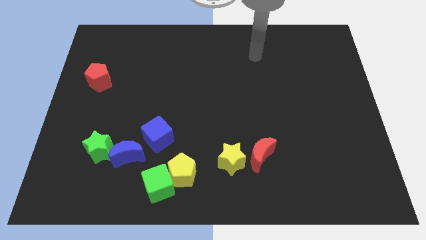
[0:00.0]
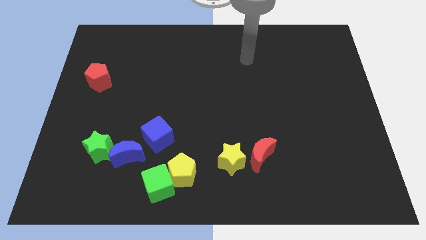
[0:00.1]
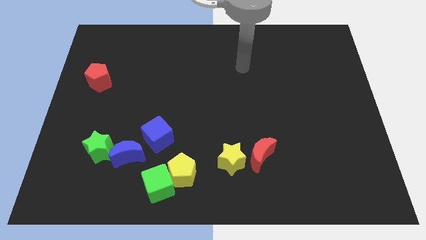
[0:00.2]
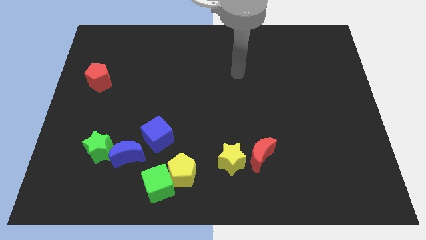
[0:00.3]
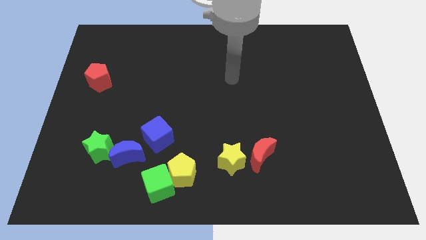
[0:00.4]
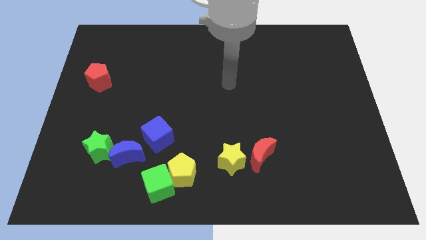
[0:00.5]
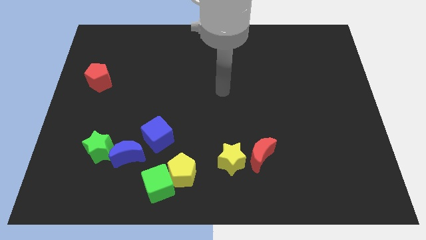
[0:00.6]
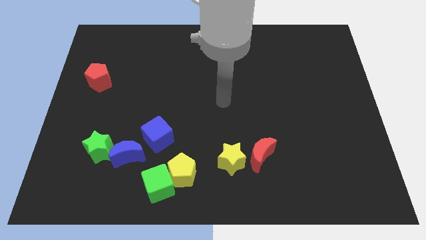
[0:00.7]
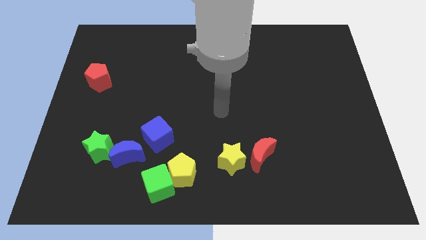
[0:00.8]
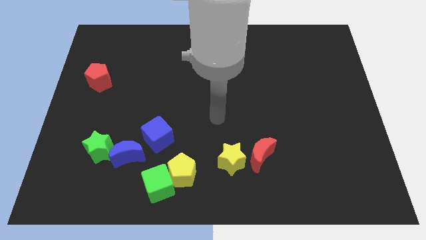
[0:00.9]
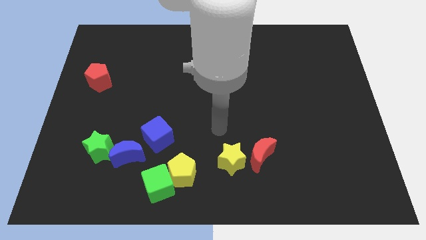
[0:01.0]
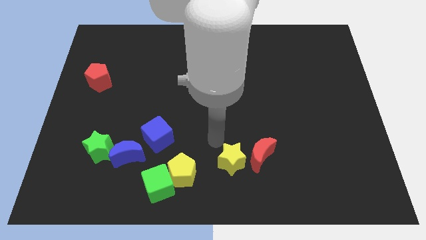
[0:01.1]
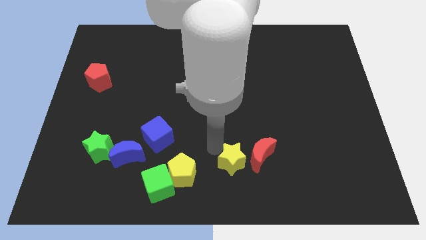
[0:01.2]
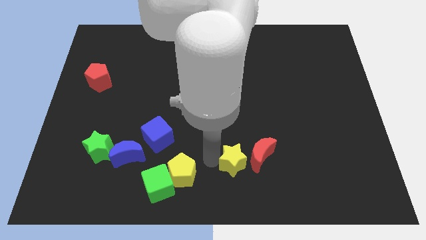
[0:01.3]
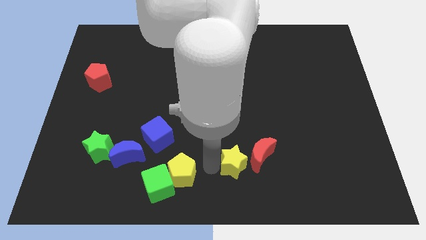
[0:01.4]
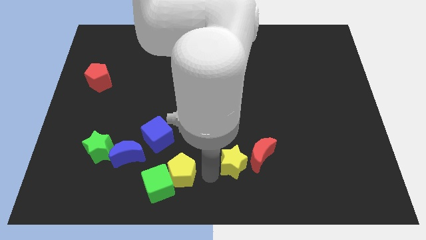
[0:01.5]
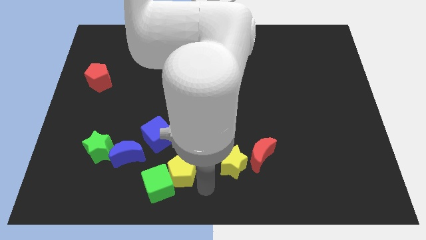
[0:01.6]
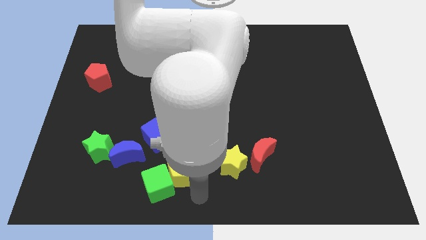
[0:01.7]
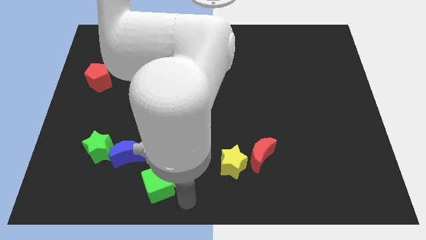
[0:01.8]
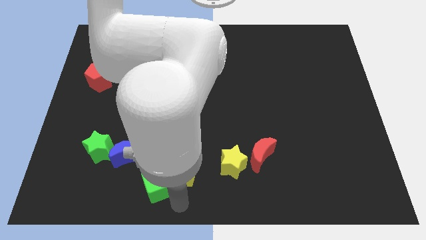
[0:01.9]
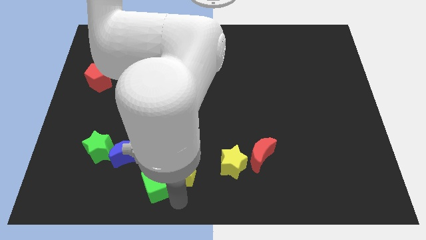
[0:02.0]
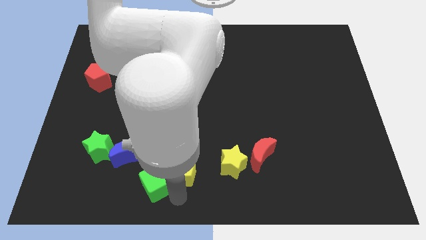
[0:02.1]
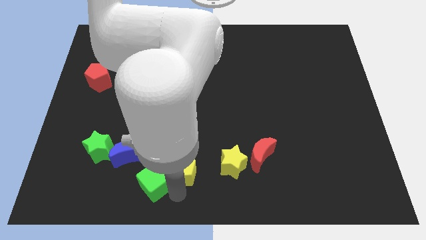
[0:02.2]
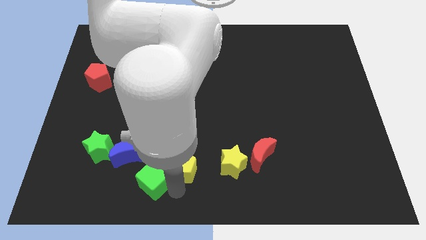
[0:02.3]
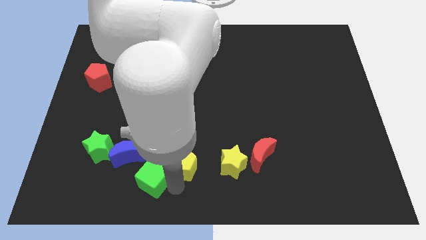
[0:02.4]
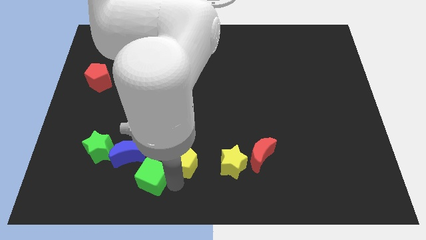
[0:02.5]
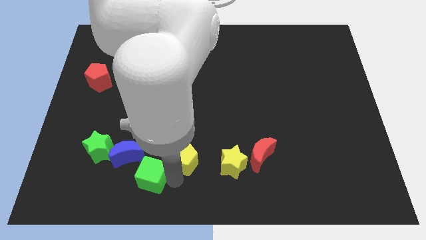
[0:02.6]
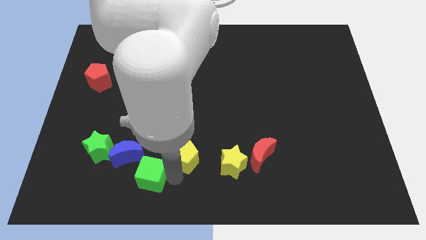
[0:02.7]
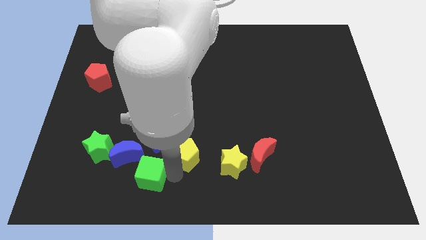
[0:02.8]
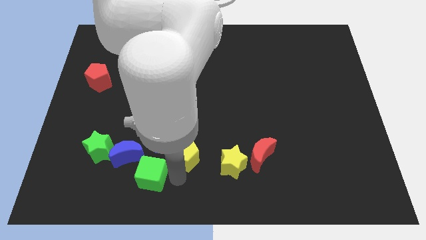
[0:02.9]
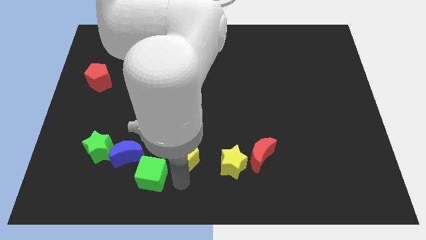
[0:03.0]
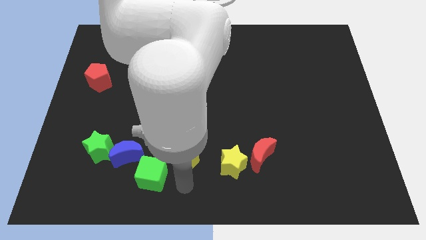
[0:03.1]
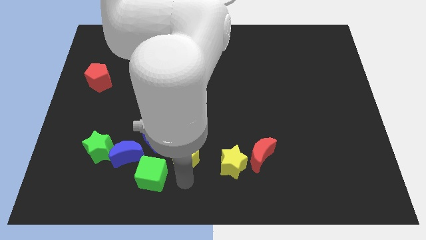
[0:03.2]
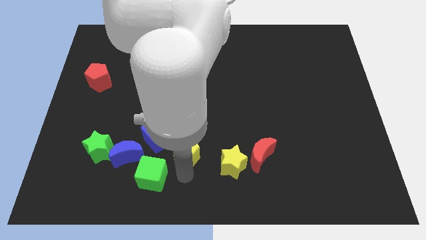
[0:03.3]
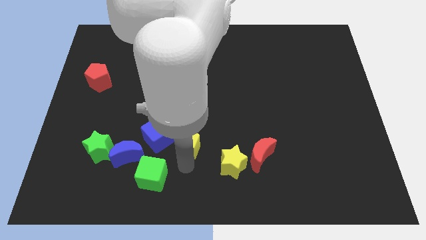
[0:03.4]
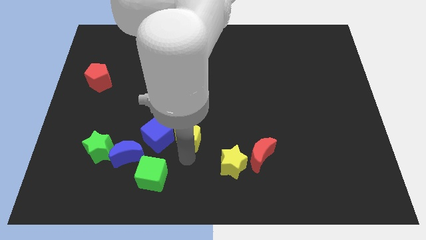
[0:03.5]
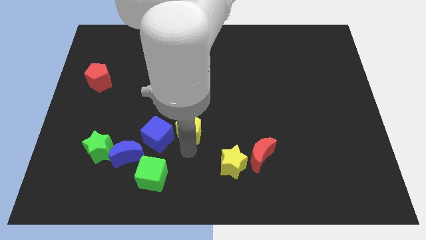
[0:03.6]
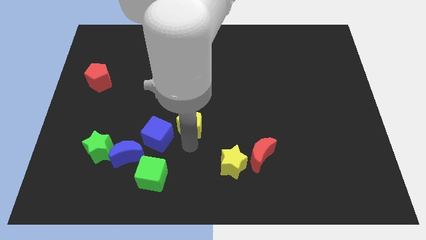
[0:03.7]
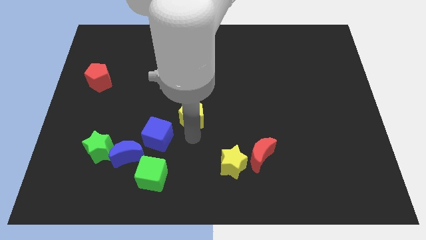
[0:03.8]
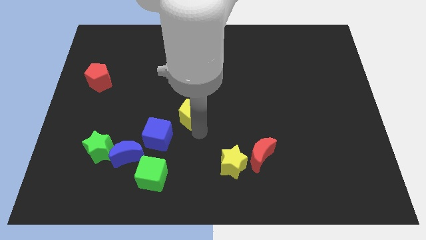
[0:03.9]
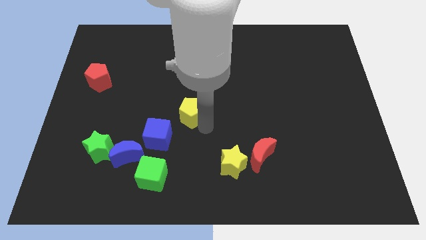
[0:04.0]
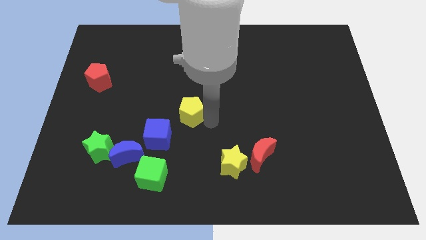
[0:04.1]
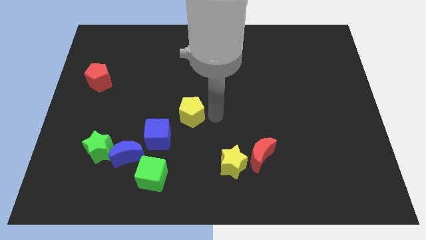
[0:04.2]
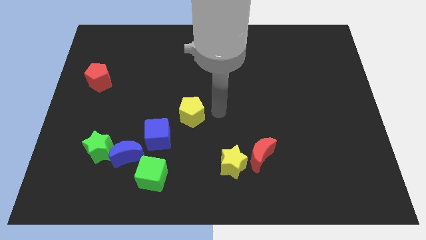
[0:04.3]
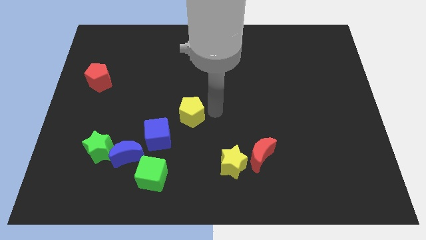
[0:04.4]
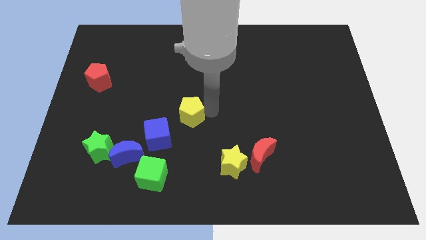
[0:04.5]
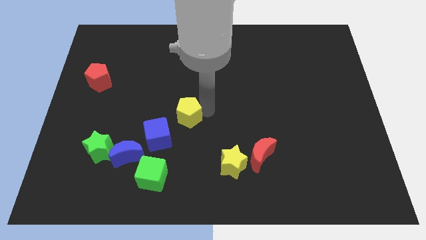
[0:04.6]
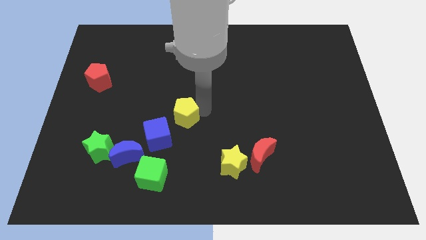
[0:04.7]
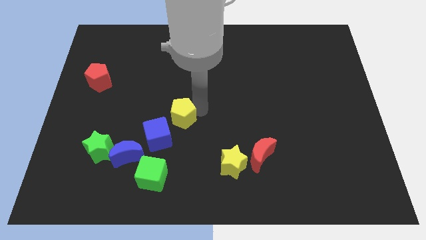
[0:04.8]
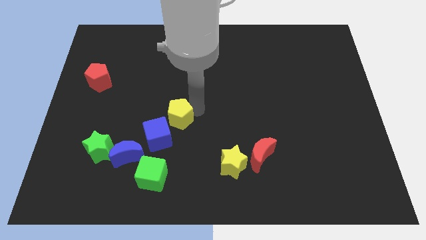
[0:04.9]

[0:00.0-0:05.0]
slightly slide the yellow pentagon diagonally up and to the left

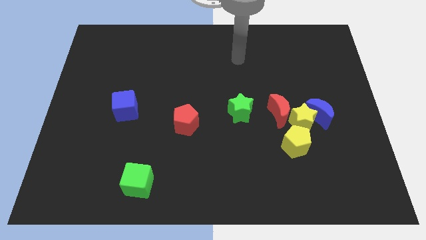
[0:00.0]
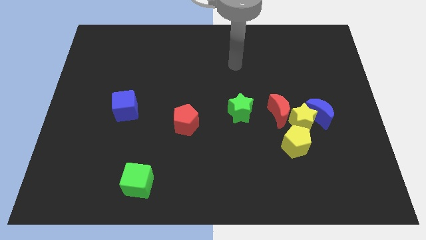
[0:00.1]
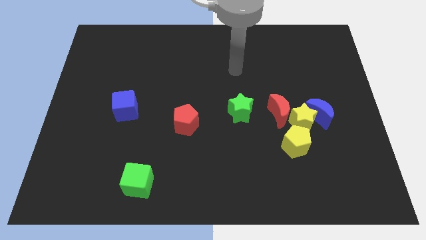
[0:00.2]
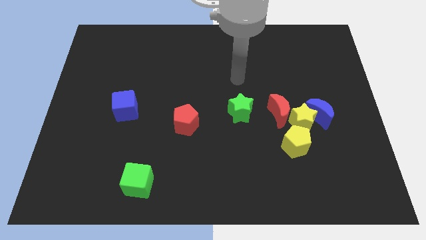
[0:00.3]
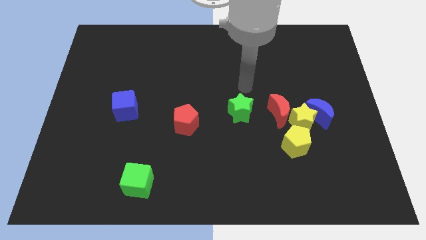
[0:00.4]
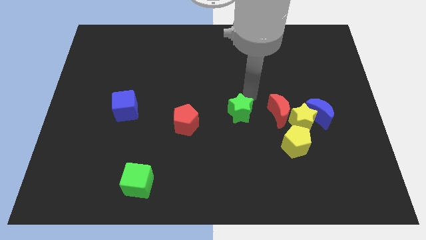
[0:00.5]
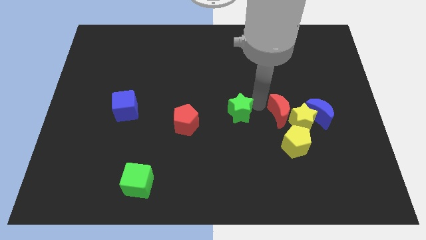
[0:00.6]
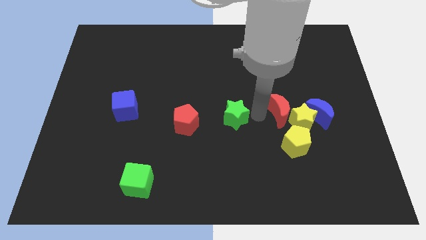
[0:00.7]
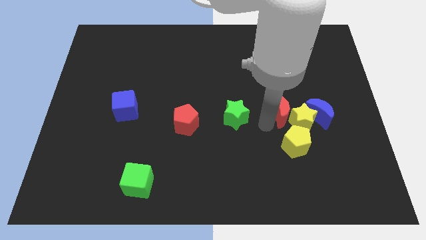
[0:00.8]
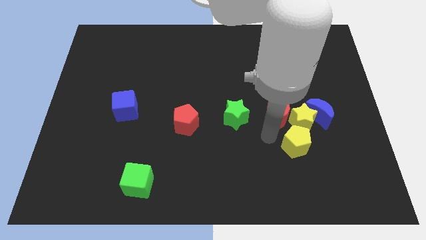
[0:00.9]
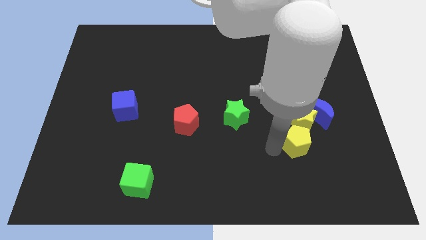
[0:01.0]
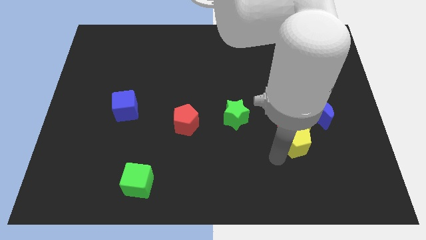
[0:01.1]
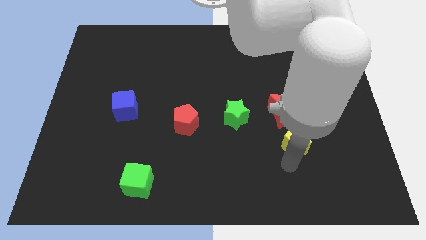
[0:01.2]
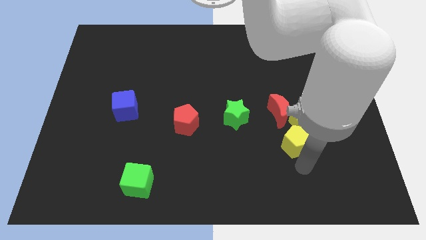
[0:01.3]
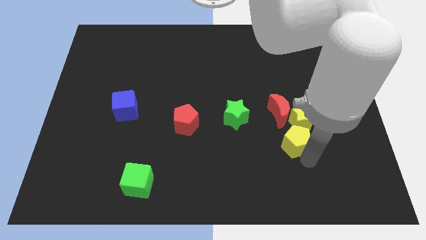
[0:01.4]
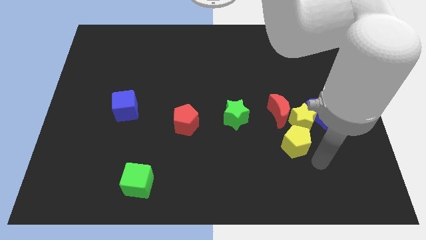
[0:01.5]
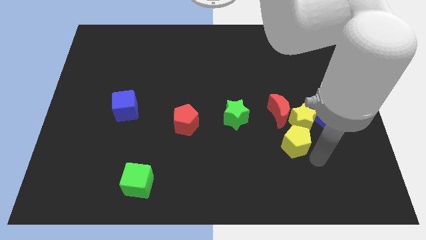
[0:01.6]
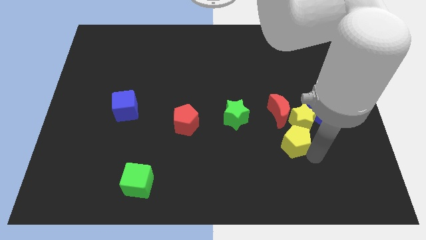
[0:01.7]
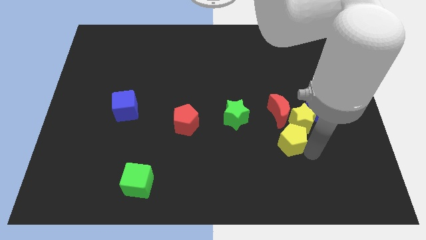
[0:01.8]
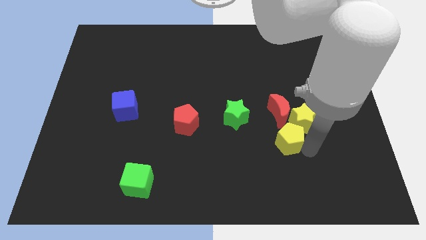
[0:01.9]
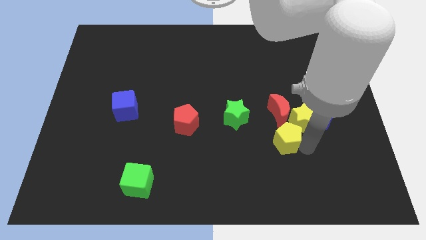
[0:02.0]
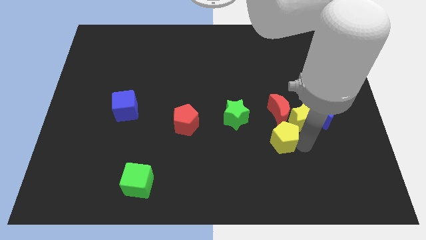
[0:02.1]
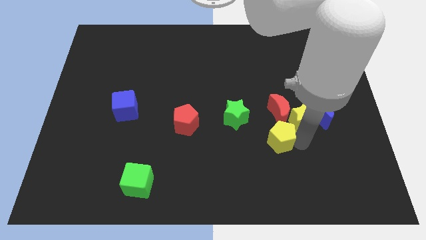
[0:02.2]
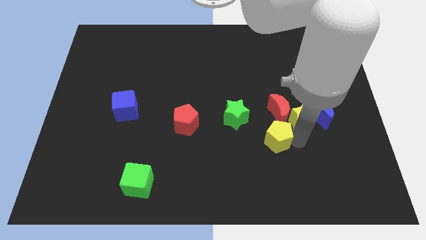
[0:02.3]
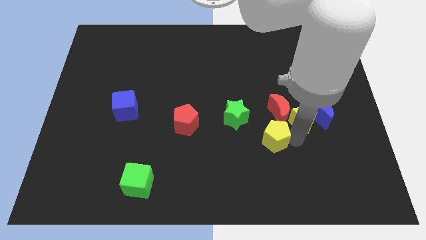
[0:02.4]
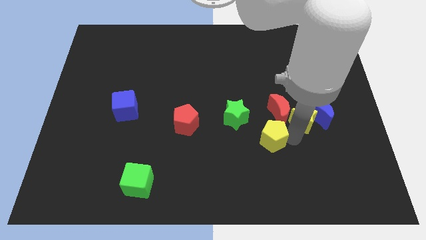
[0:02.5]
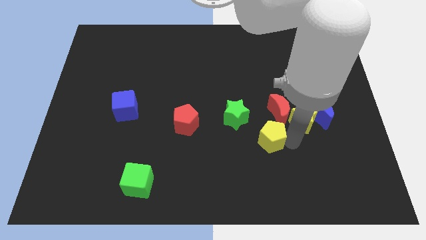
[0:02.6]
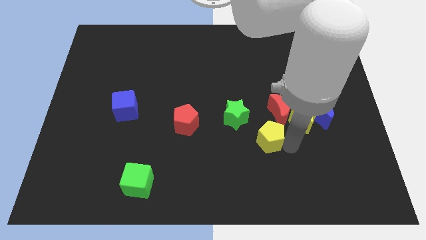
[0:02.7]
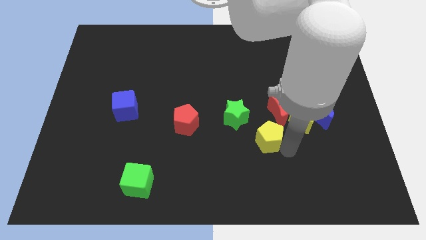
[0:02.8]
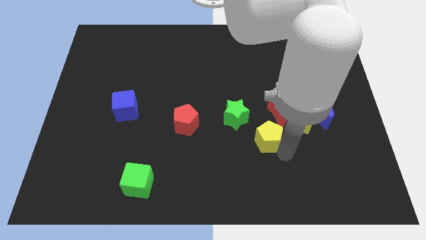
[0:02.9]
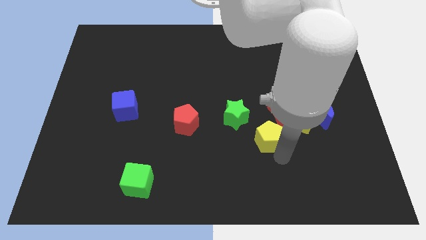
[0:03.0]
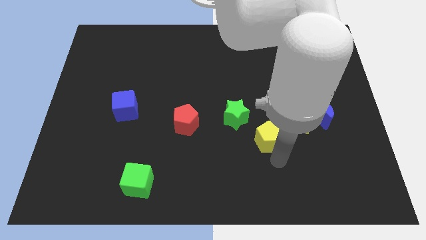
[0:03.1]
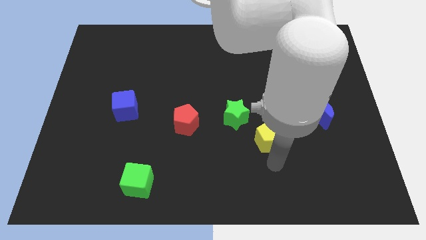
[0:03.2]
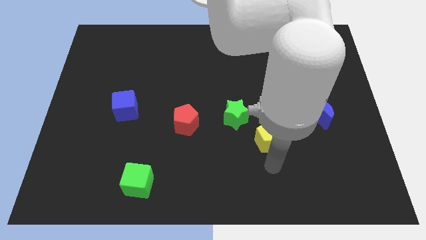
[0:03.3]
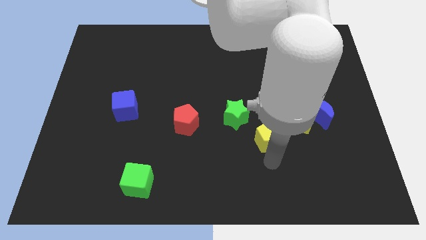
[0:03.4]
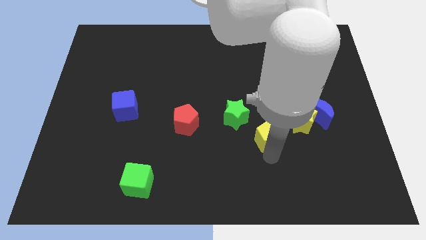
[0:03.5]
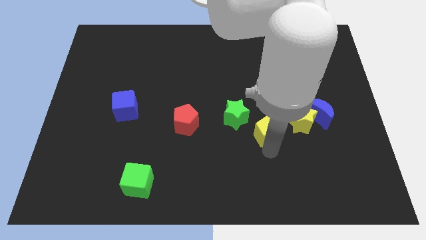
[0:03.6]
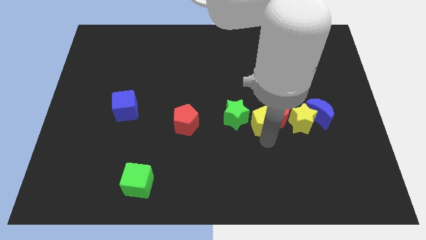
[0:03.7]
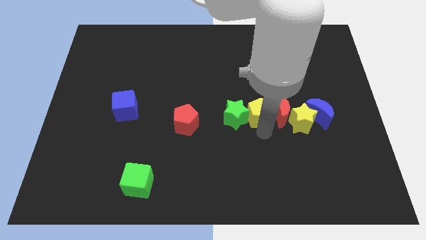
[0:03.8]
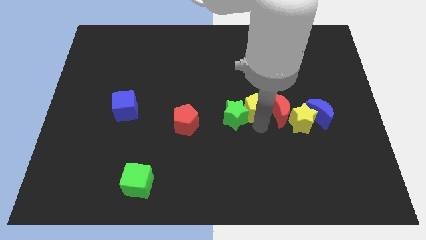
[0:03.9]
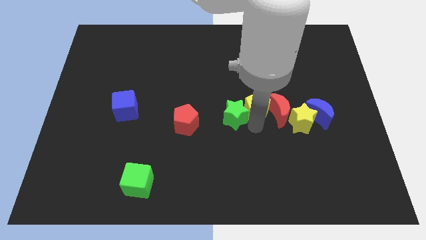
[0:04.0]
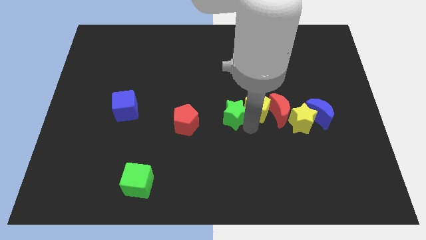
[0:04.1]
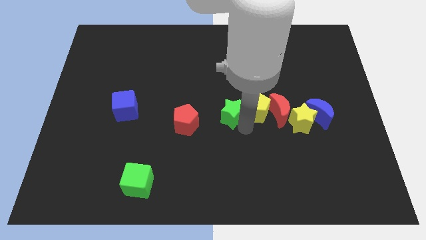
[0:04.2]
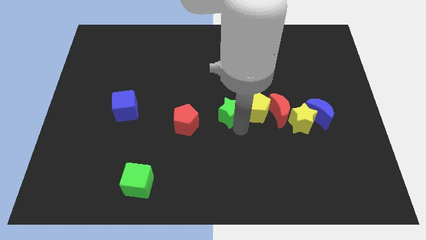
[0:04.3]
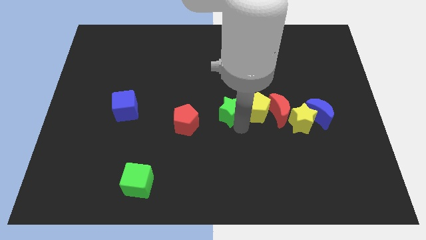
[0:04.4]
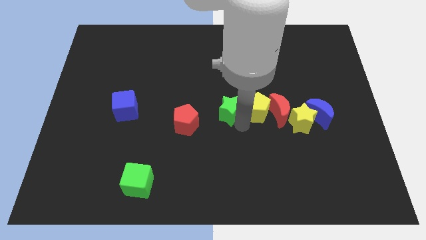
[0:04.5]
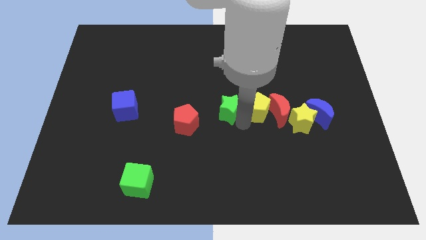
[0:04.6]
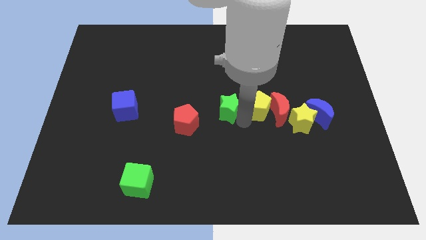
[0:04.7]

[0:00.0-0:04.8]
move the yellow pentagon a little bit up
